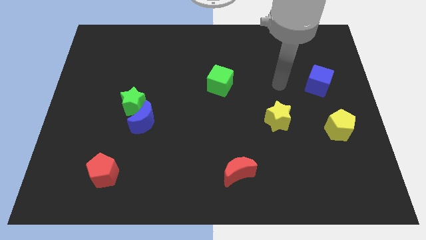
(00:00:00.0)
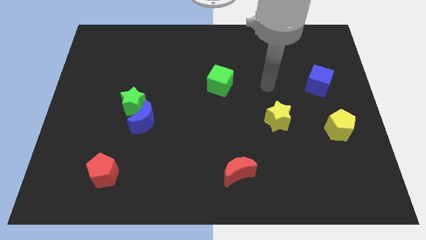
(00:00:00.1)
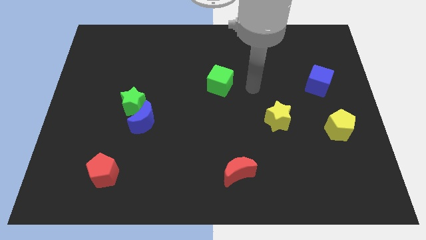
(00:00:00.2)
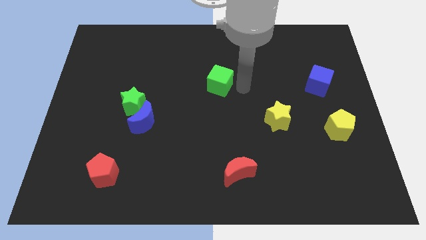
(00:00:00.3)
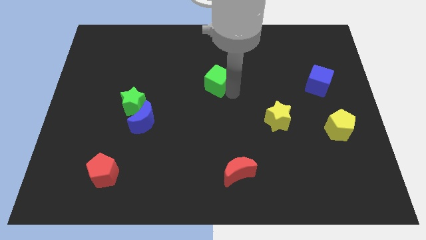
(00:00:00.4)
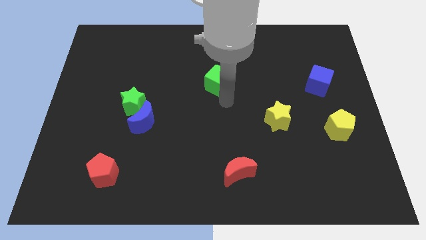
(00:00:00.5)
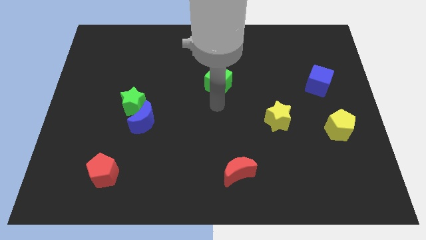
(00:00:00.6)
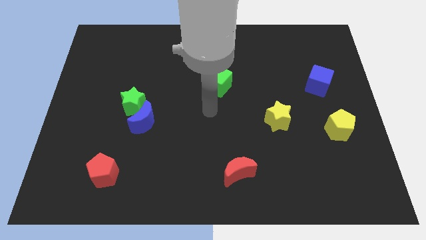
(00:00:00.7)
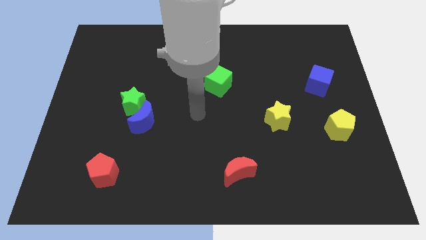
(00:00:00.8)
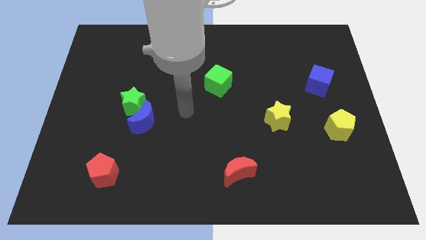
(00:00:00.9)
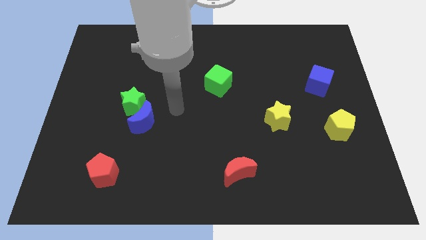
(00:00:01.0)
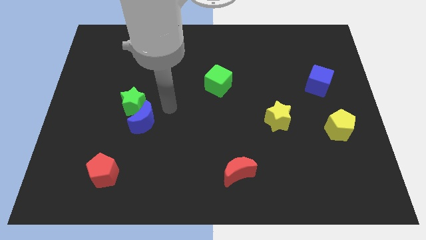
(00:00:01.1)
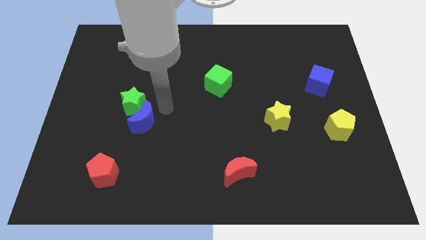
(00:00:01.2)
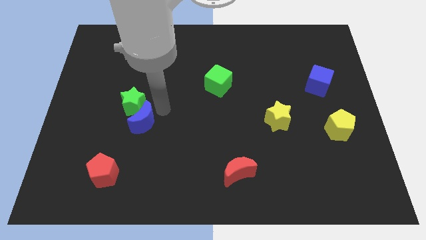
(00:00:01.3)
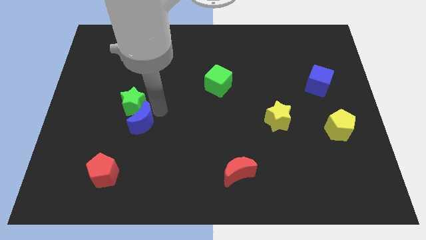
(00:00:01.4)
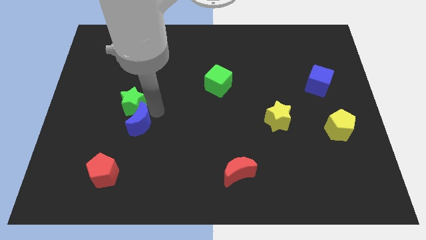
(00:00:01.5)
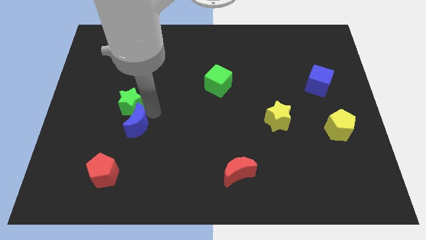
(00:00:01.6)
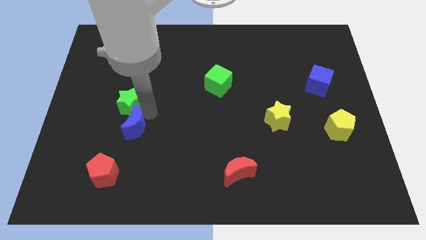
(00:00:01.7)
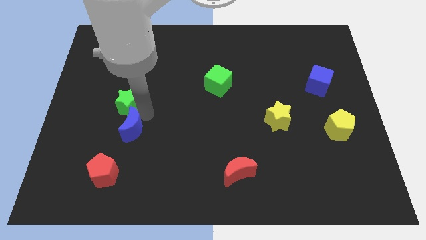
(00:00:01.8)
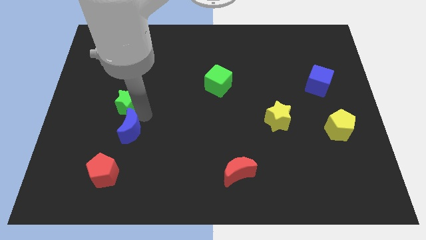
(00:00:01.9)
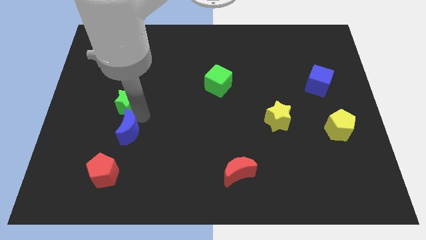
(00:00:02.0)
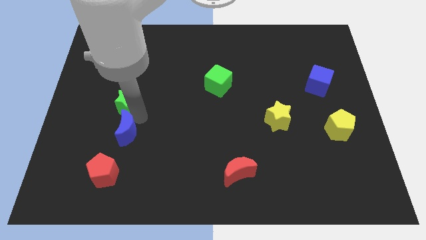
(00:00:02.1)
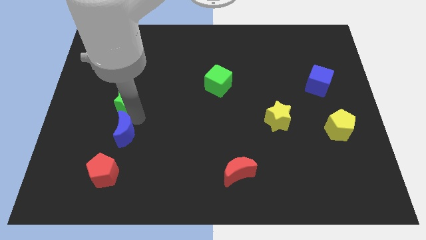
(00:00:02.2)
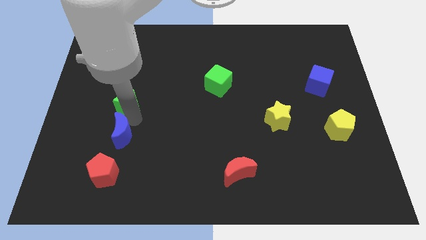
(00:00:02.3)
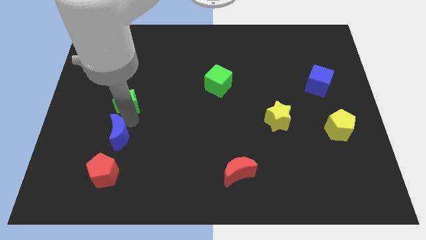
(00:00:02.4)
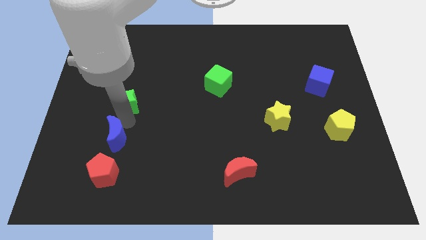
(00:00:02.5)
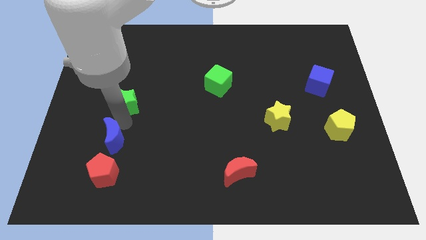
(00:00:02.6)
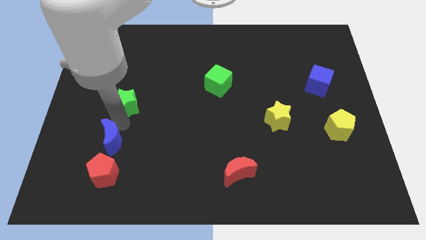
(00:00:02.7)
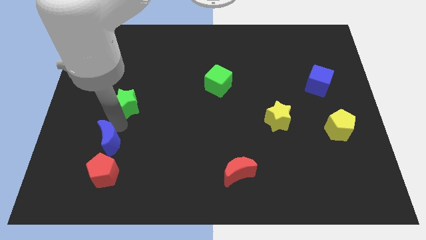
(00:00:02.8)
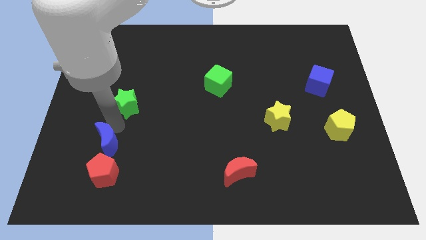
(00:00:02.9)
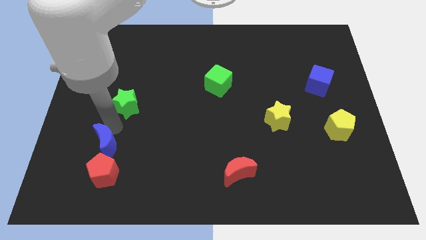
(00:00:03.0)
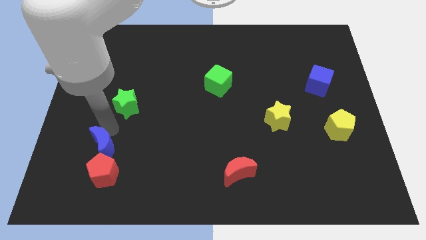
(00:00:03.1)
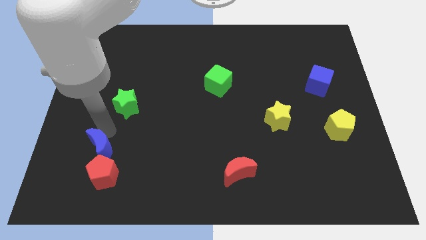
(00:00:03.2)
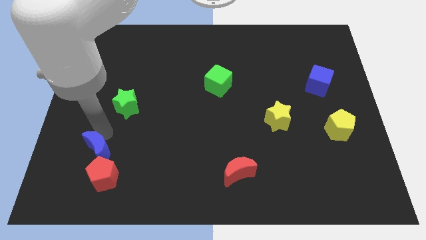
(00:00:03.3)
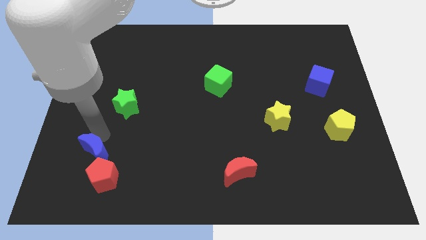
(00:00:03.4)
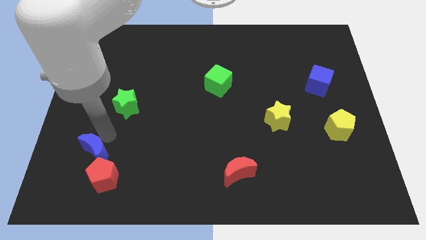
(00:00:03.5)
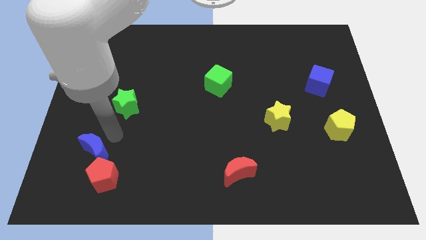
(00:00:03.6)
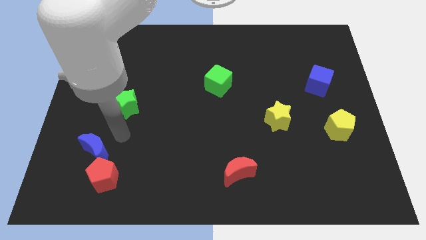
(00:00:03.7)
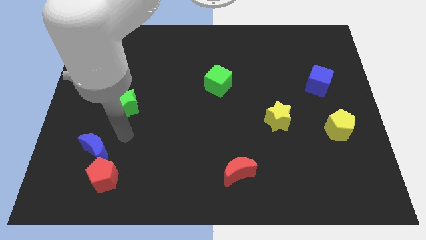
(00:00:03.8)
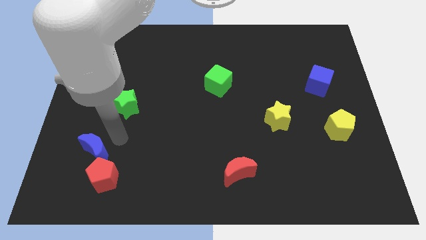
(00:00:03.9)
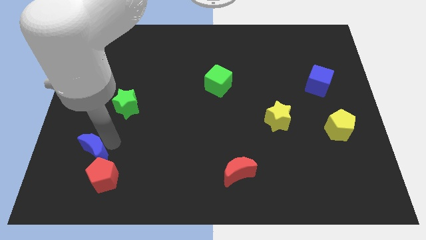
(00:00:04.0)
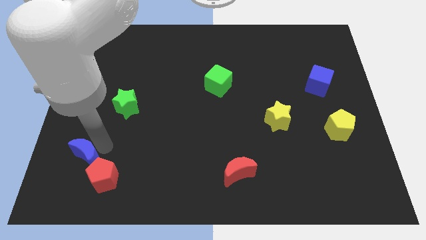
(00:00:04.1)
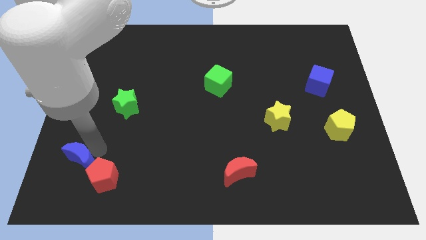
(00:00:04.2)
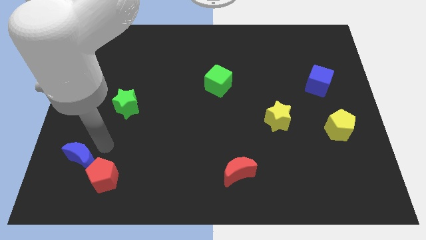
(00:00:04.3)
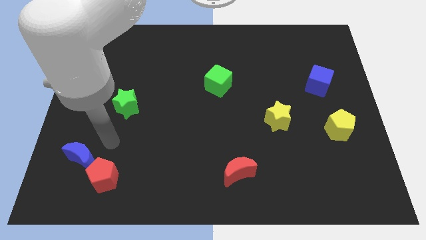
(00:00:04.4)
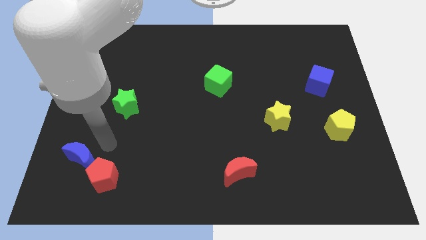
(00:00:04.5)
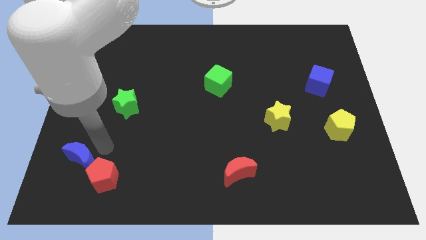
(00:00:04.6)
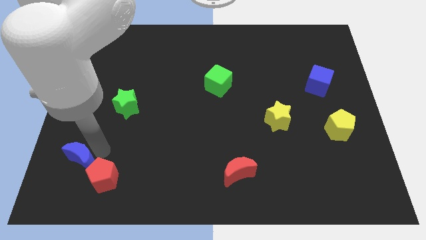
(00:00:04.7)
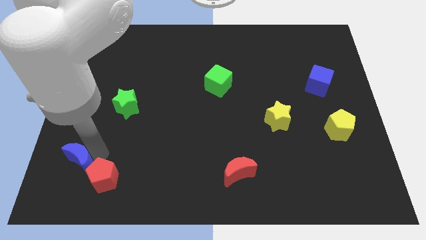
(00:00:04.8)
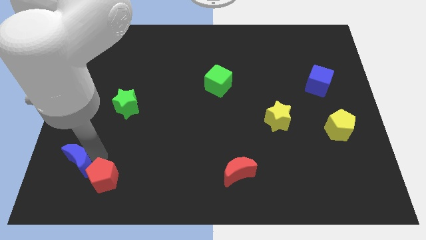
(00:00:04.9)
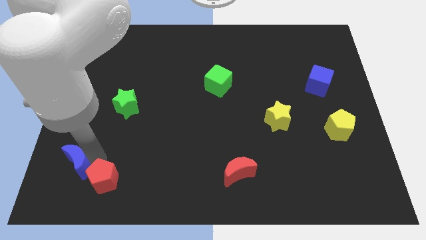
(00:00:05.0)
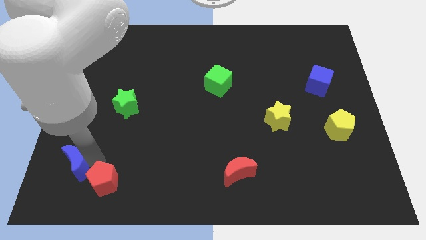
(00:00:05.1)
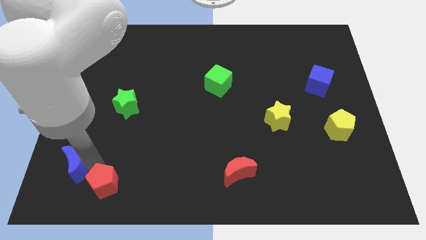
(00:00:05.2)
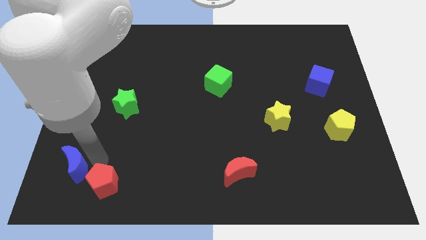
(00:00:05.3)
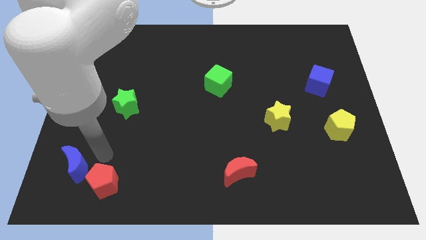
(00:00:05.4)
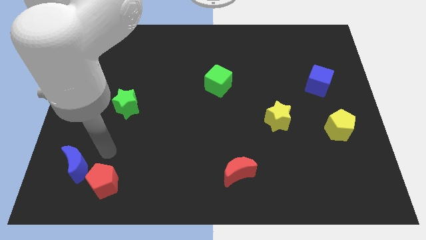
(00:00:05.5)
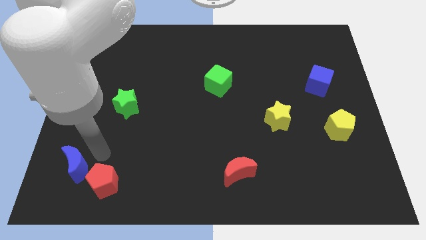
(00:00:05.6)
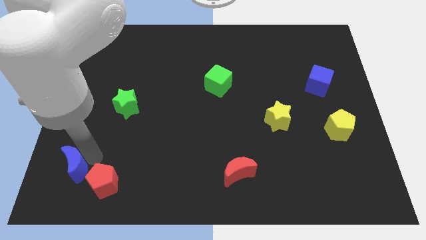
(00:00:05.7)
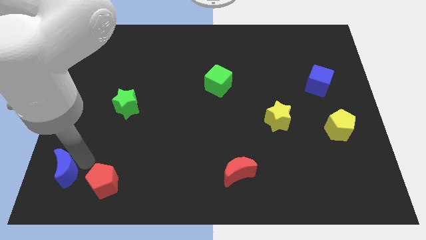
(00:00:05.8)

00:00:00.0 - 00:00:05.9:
put the blue moon to the bottom left of the board
